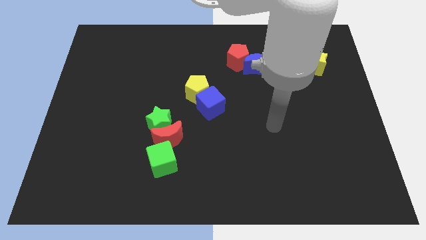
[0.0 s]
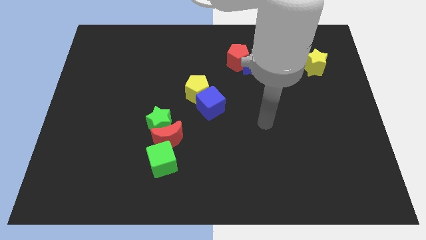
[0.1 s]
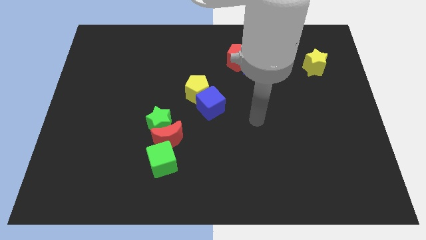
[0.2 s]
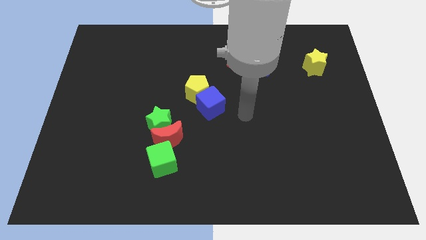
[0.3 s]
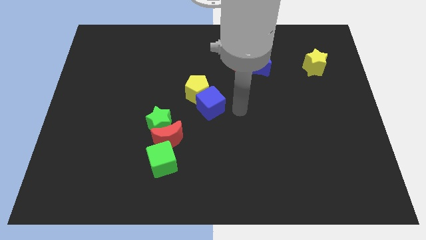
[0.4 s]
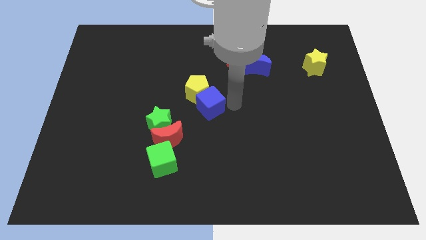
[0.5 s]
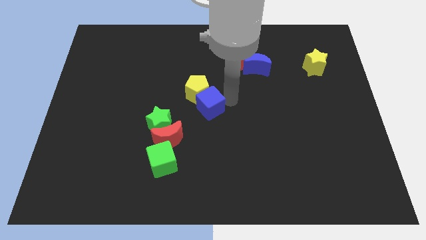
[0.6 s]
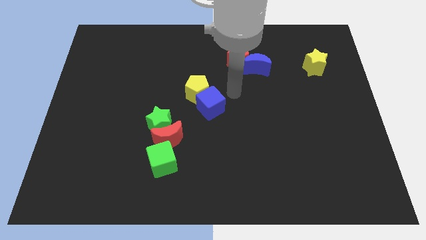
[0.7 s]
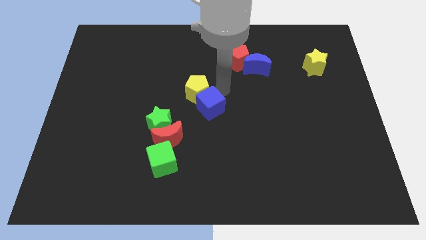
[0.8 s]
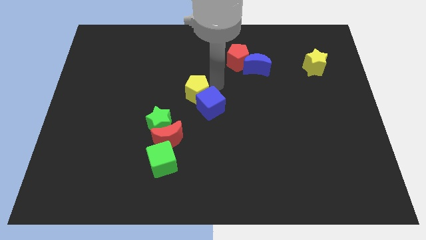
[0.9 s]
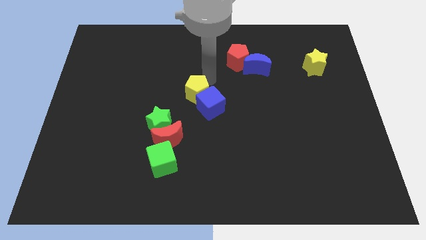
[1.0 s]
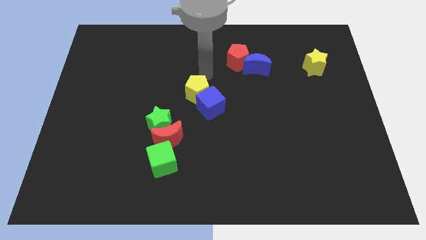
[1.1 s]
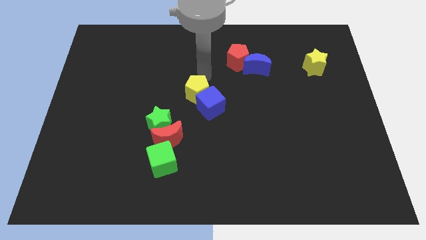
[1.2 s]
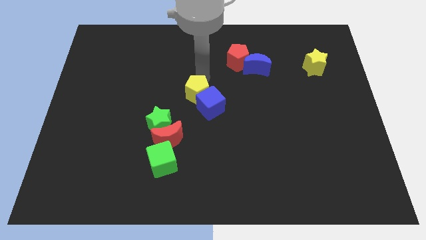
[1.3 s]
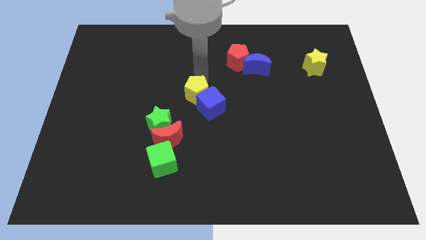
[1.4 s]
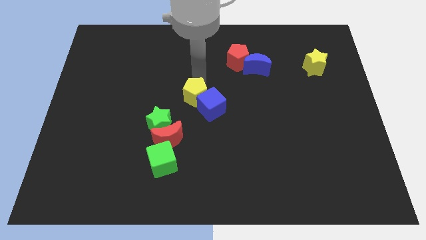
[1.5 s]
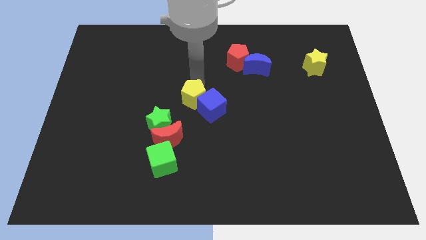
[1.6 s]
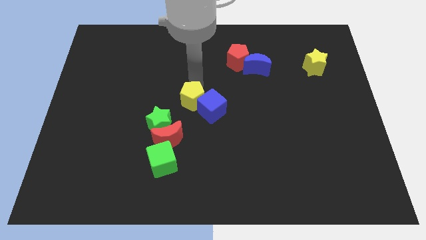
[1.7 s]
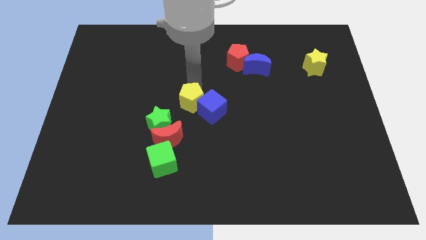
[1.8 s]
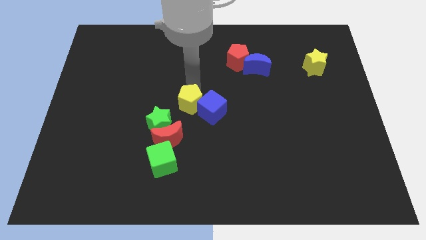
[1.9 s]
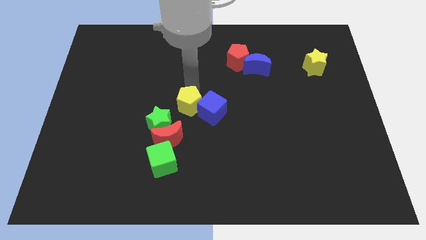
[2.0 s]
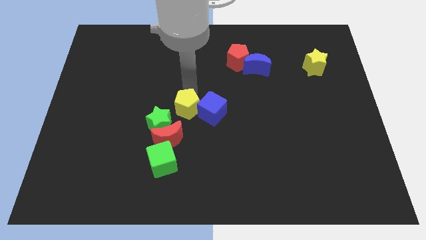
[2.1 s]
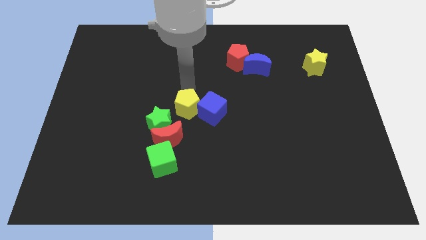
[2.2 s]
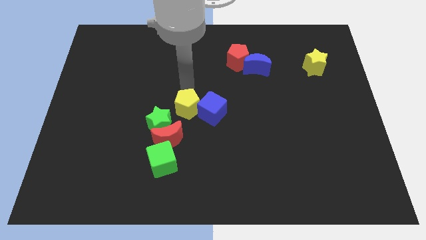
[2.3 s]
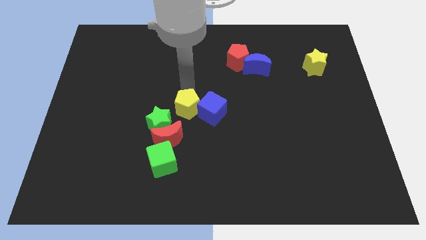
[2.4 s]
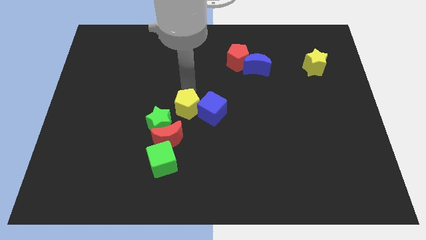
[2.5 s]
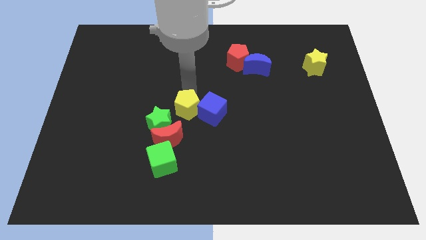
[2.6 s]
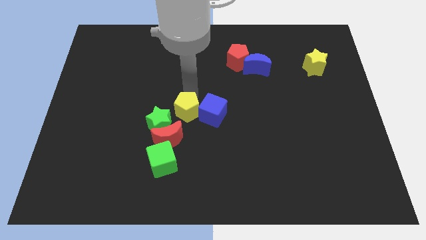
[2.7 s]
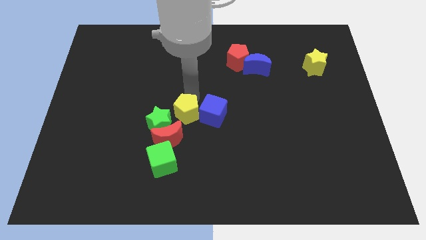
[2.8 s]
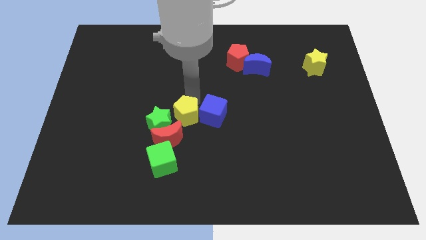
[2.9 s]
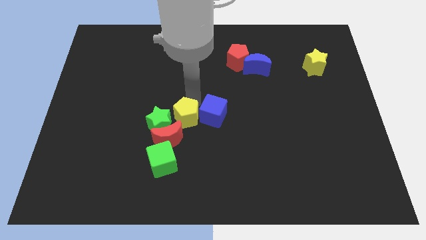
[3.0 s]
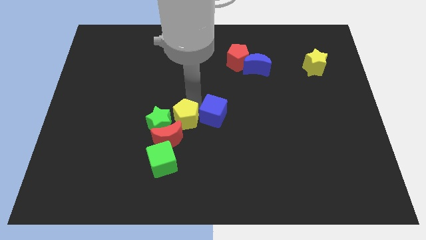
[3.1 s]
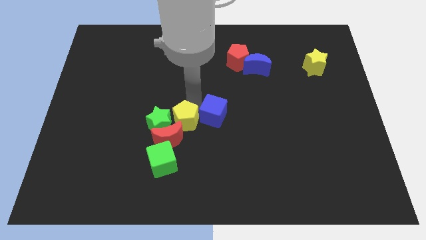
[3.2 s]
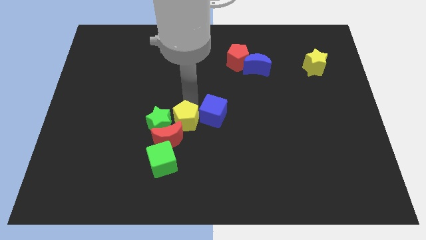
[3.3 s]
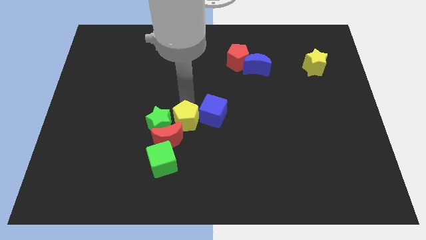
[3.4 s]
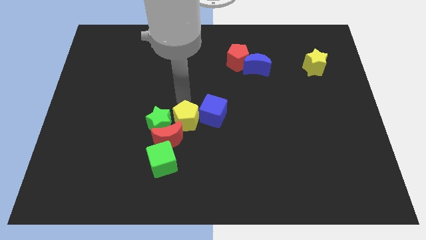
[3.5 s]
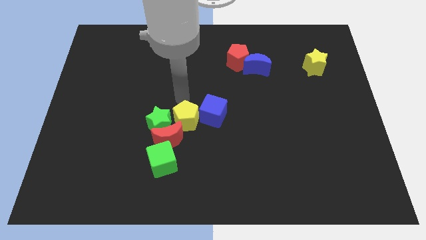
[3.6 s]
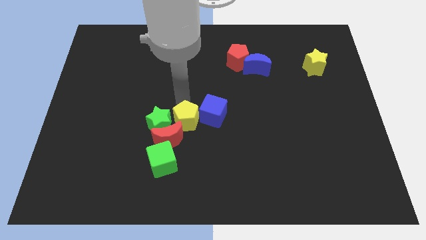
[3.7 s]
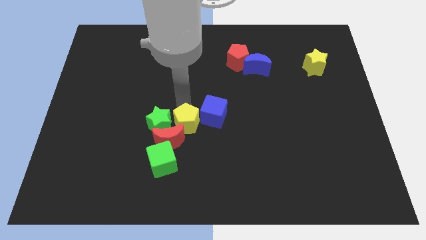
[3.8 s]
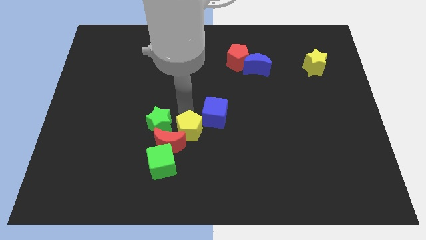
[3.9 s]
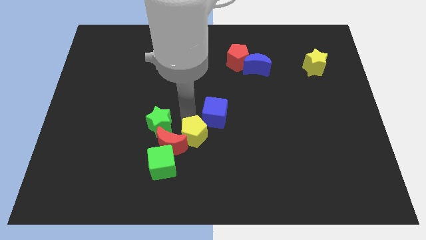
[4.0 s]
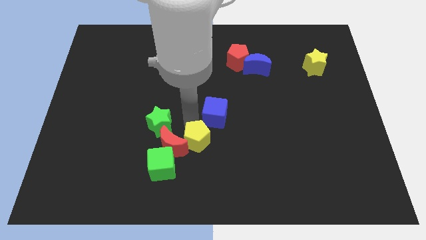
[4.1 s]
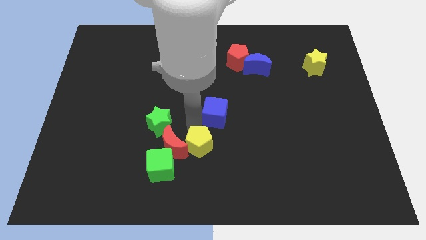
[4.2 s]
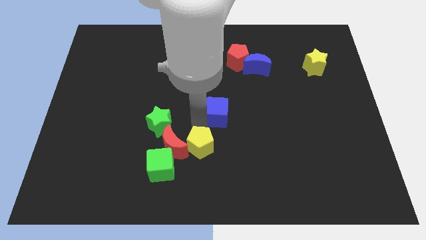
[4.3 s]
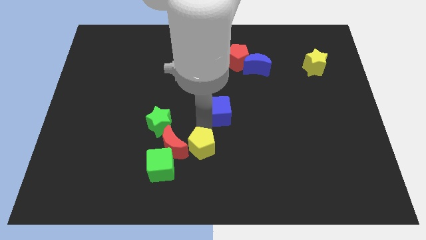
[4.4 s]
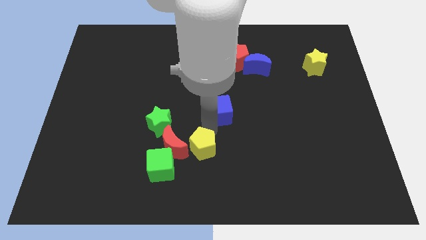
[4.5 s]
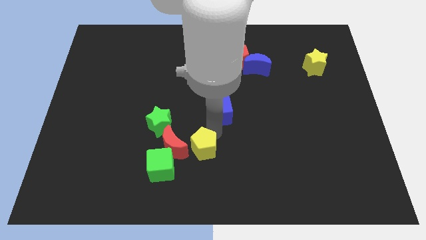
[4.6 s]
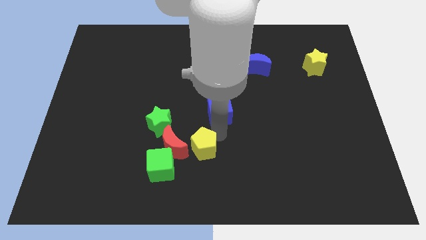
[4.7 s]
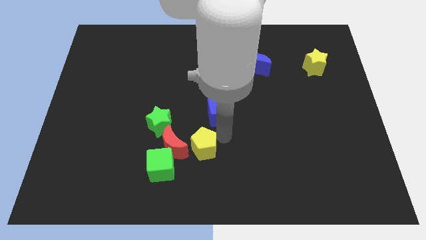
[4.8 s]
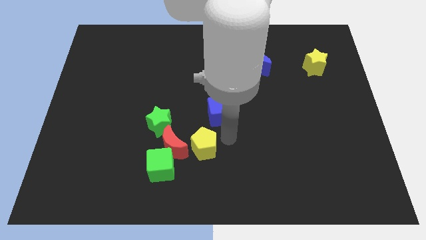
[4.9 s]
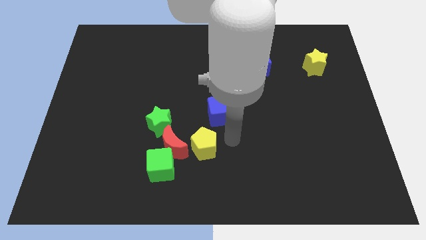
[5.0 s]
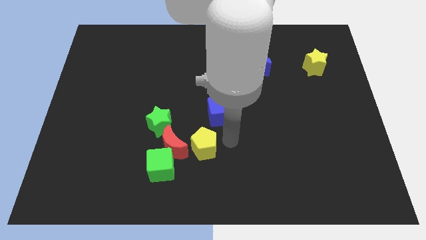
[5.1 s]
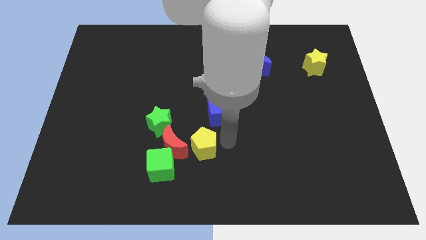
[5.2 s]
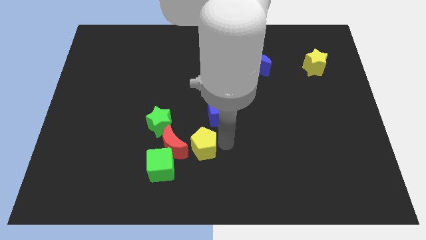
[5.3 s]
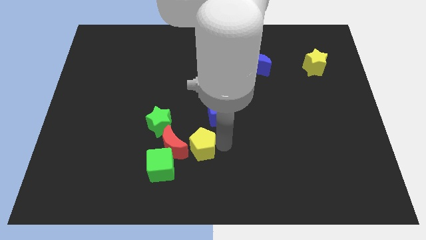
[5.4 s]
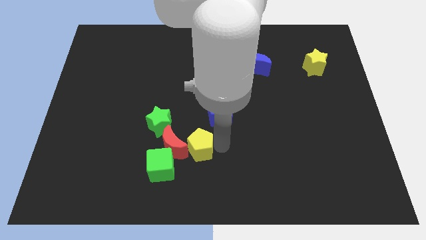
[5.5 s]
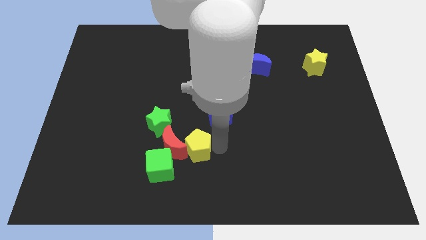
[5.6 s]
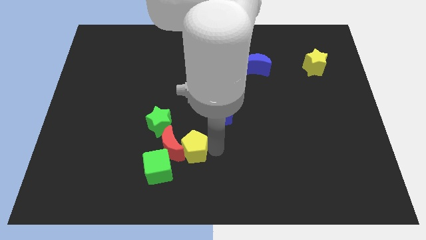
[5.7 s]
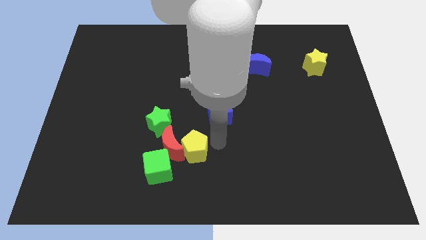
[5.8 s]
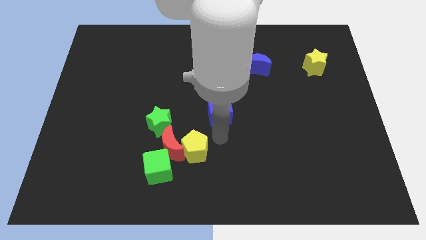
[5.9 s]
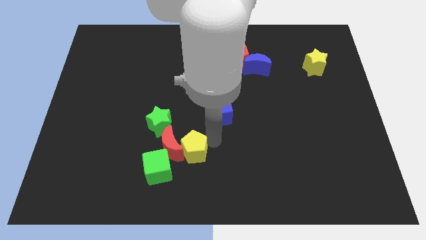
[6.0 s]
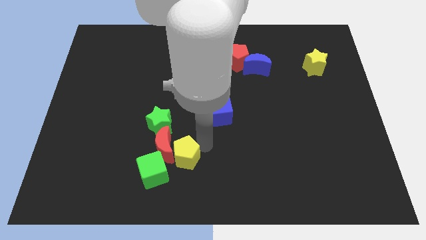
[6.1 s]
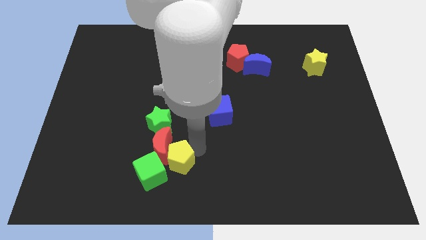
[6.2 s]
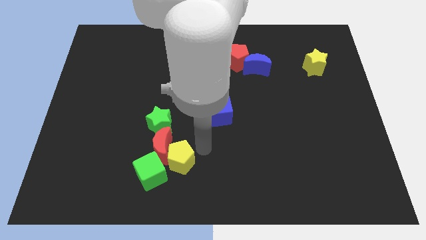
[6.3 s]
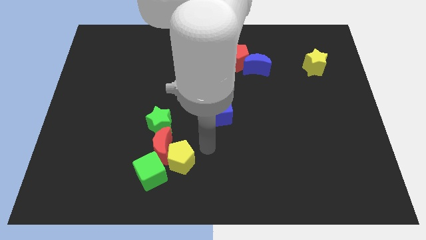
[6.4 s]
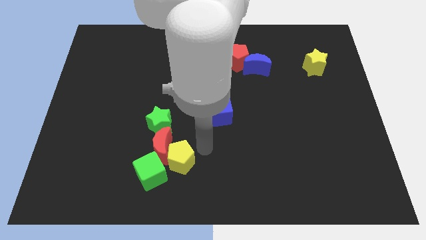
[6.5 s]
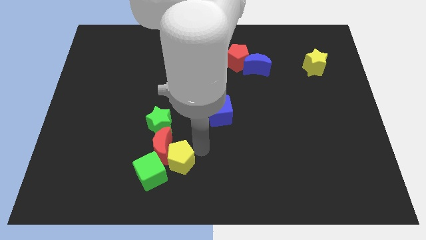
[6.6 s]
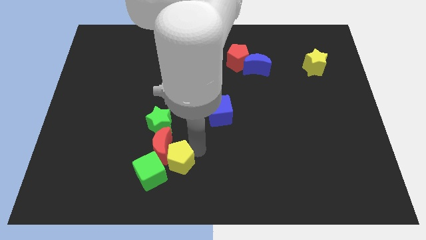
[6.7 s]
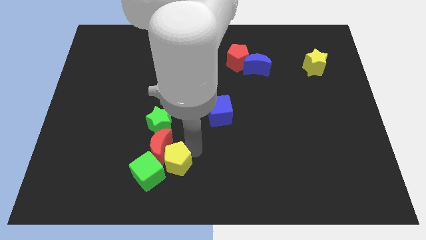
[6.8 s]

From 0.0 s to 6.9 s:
slide the yellow pentagon to the green cube
